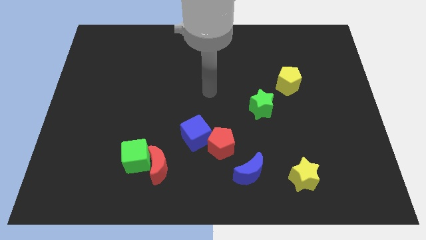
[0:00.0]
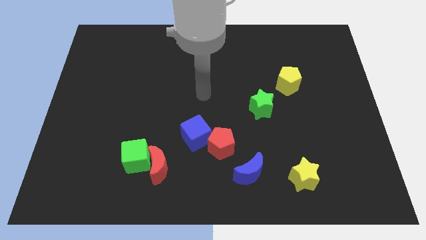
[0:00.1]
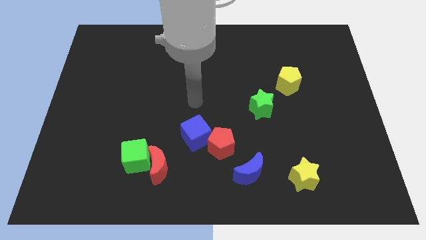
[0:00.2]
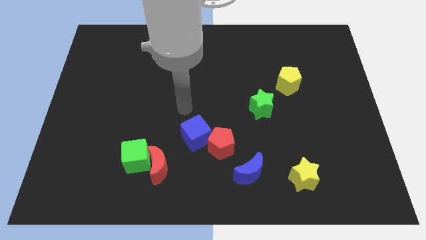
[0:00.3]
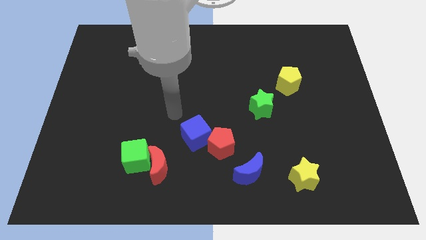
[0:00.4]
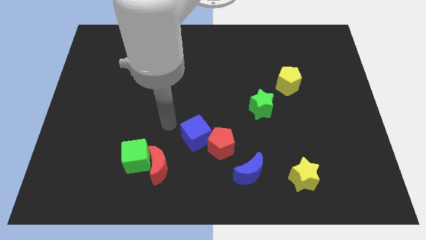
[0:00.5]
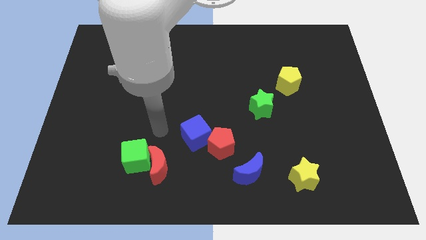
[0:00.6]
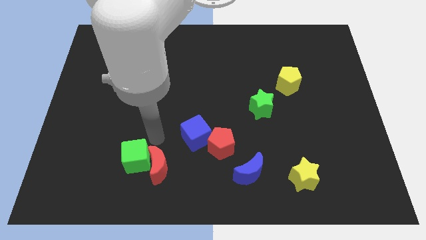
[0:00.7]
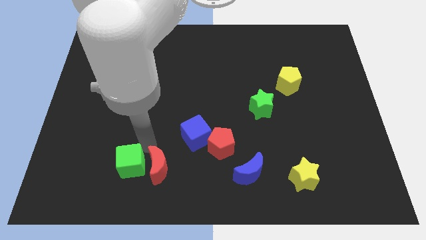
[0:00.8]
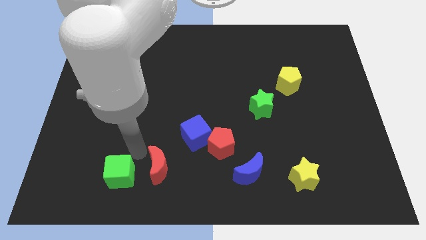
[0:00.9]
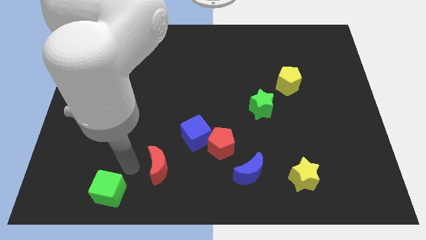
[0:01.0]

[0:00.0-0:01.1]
separate the red moon from the green cube

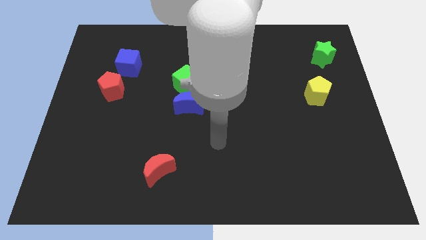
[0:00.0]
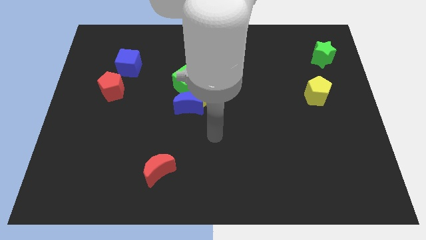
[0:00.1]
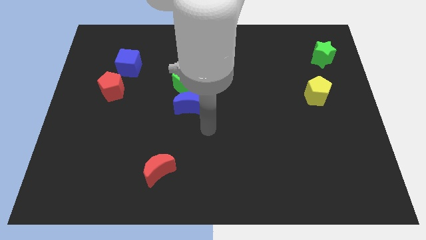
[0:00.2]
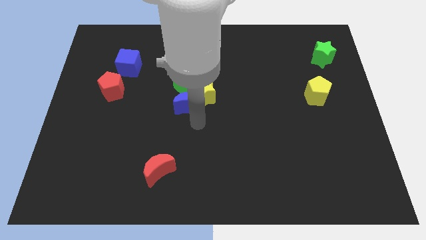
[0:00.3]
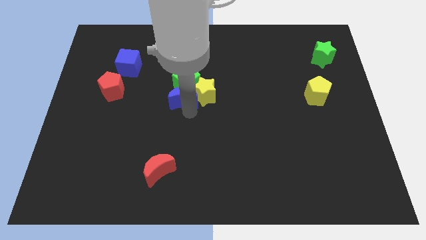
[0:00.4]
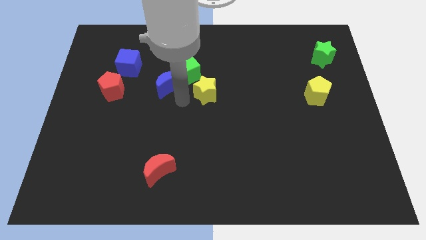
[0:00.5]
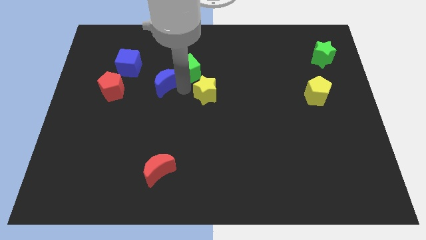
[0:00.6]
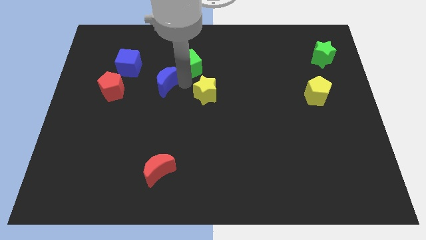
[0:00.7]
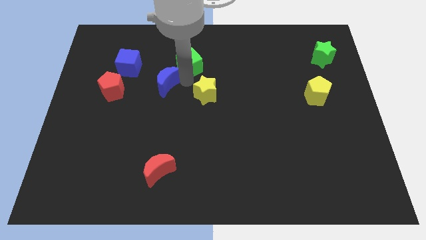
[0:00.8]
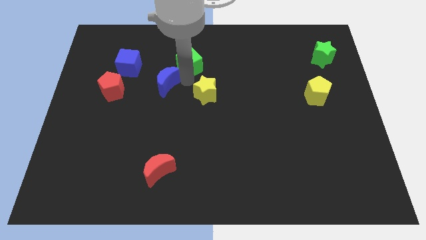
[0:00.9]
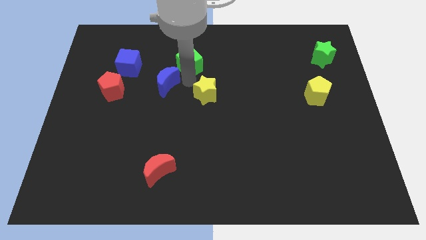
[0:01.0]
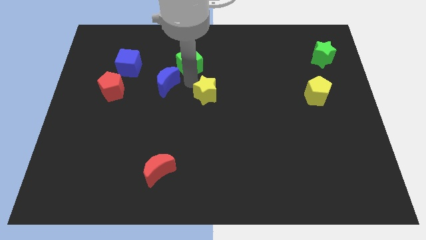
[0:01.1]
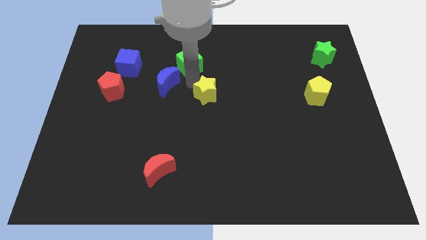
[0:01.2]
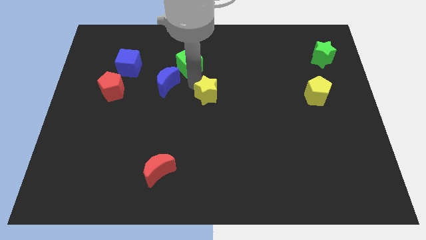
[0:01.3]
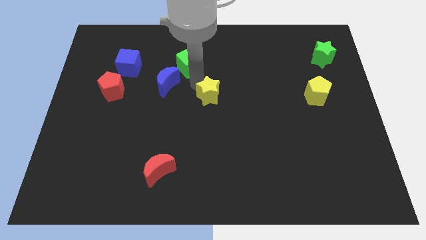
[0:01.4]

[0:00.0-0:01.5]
separate the yellow star from the blue moon and green cube

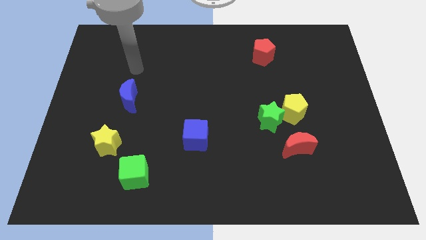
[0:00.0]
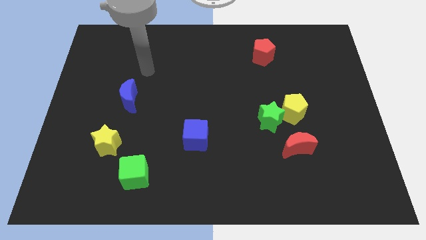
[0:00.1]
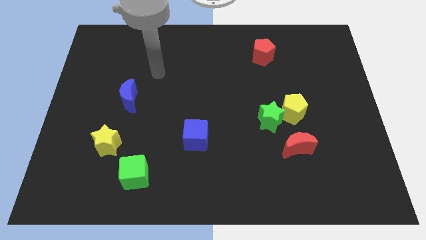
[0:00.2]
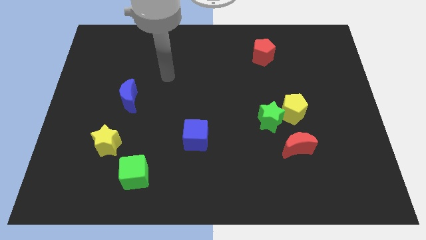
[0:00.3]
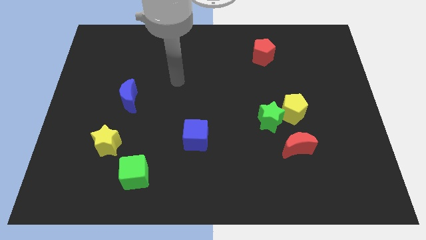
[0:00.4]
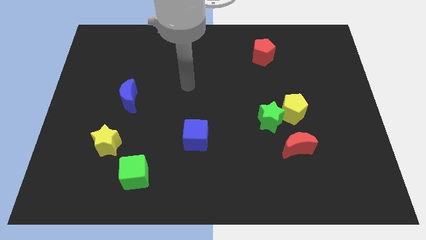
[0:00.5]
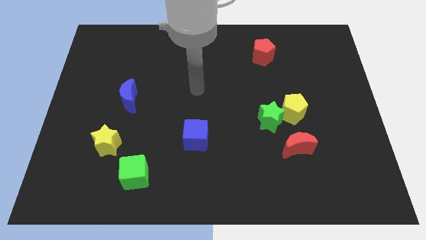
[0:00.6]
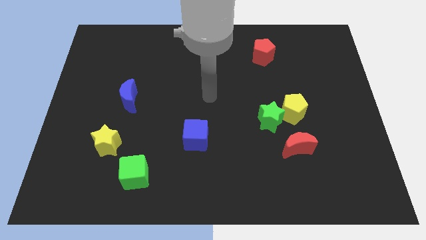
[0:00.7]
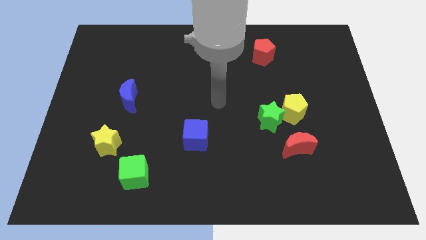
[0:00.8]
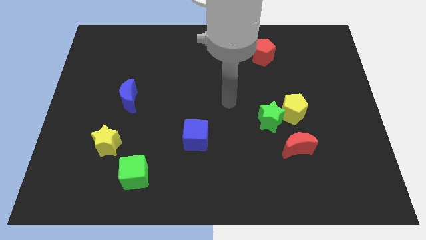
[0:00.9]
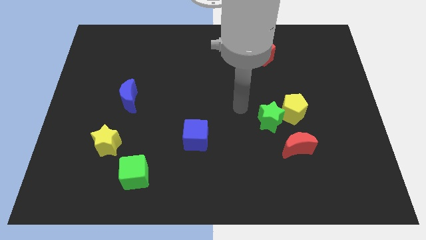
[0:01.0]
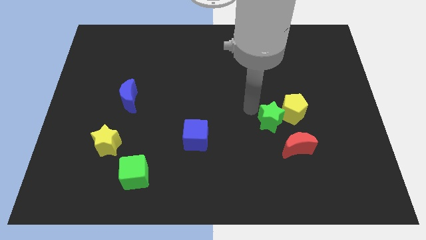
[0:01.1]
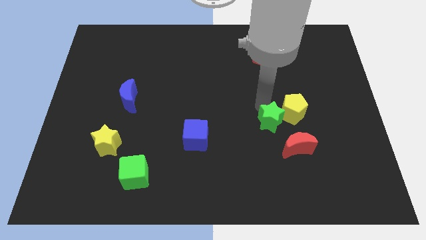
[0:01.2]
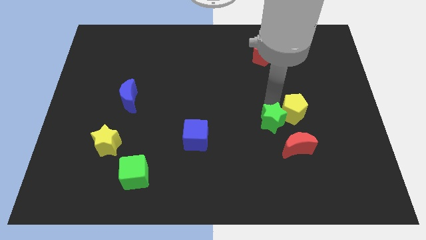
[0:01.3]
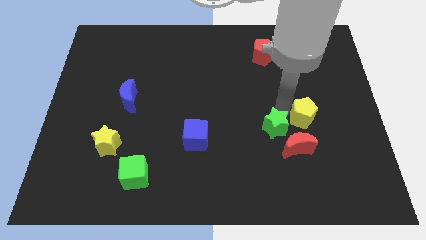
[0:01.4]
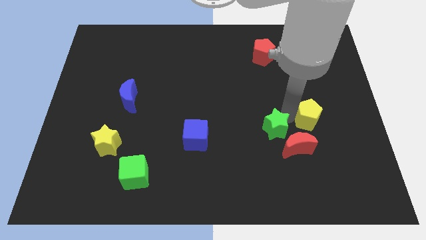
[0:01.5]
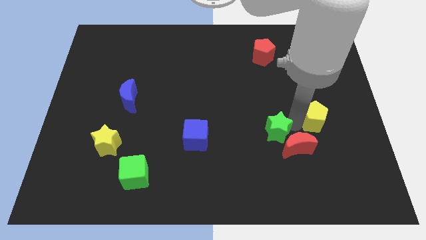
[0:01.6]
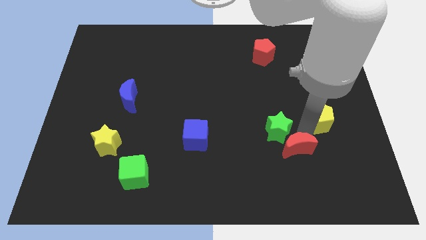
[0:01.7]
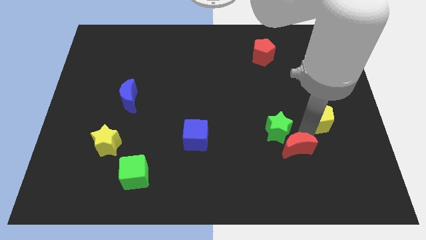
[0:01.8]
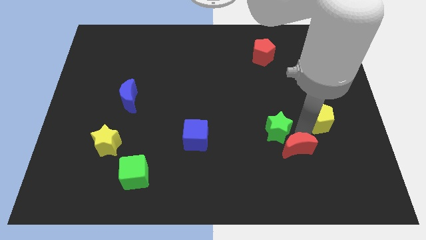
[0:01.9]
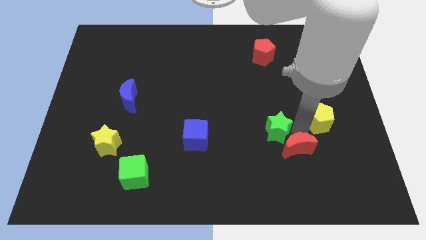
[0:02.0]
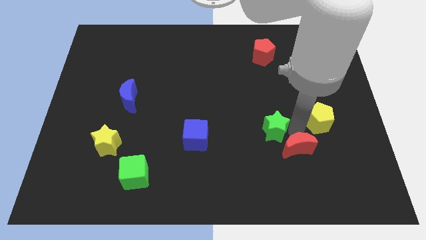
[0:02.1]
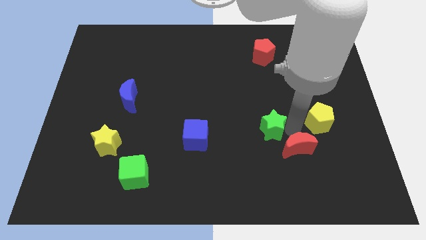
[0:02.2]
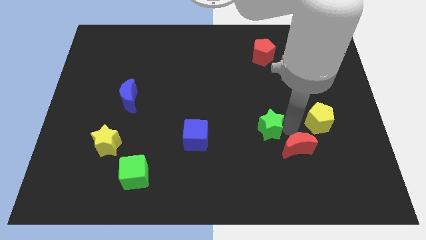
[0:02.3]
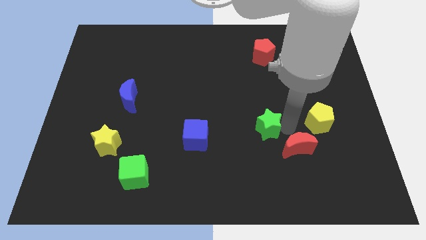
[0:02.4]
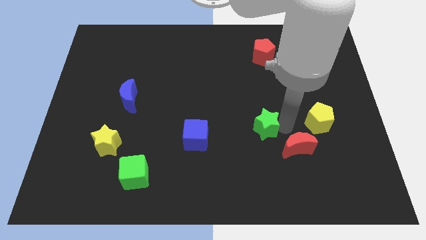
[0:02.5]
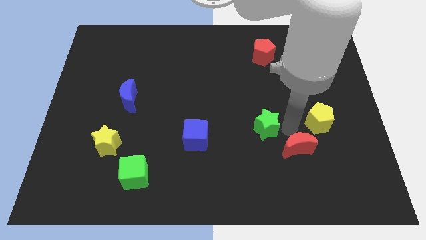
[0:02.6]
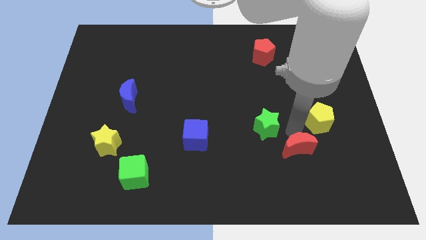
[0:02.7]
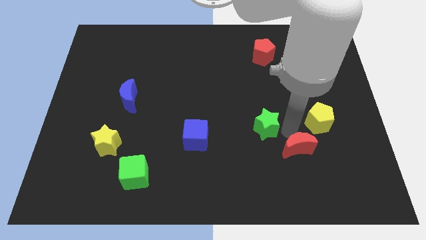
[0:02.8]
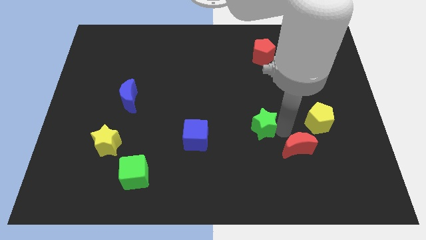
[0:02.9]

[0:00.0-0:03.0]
pull the green star apart from the yellow pentagon and red moon

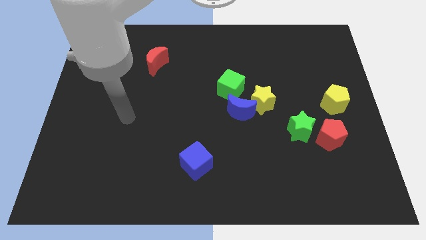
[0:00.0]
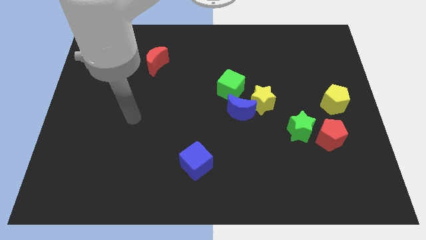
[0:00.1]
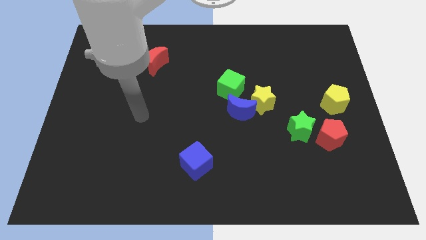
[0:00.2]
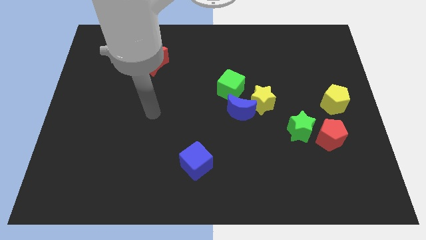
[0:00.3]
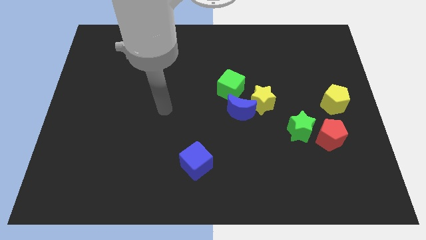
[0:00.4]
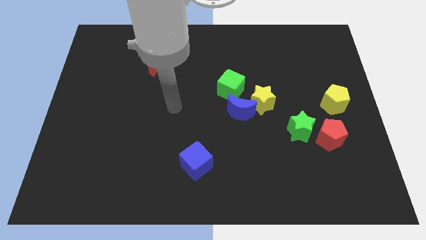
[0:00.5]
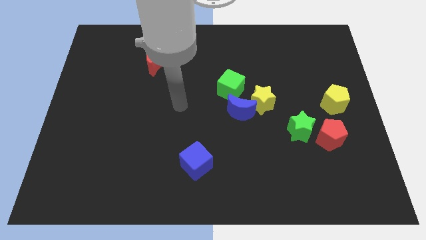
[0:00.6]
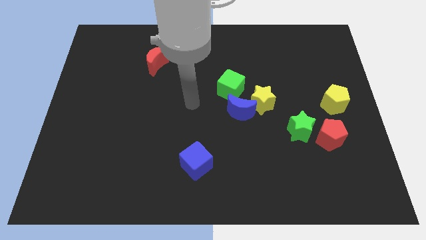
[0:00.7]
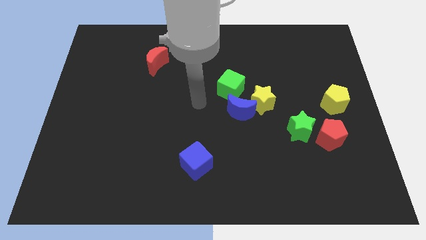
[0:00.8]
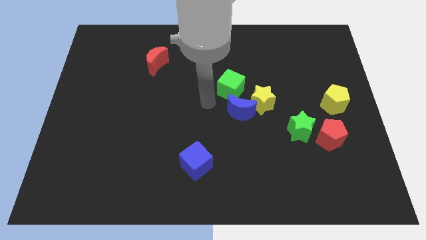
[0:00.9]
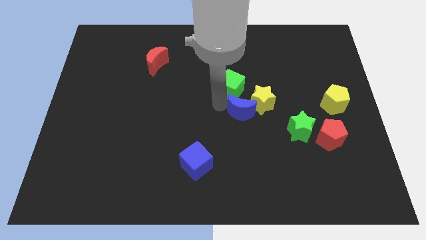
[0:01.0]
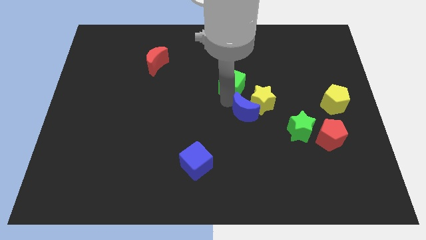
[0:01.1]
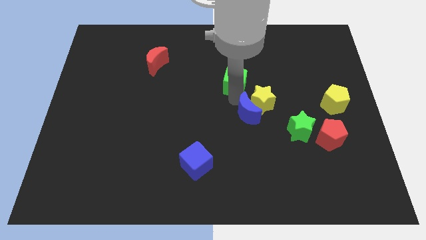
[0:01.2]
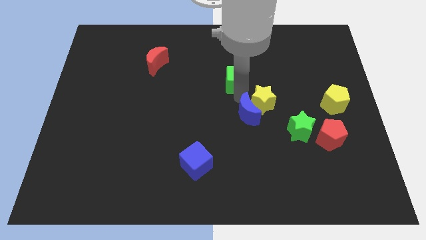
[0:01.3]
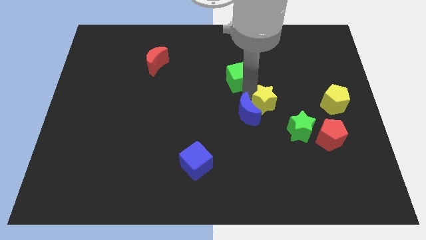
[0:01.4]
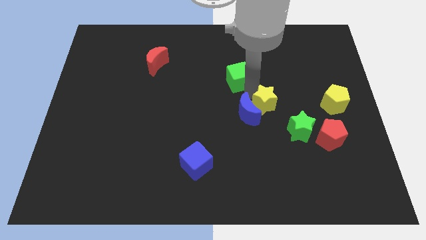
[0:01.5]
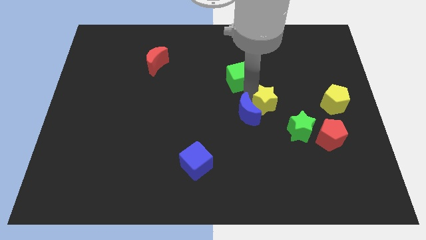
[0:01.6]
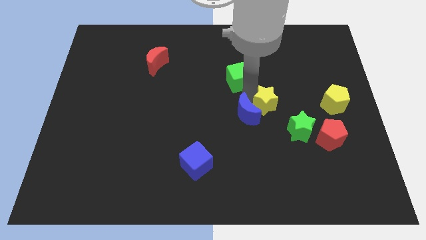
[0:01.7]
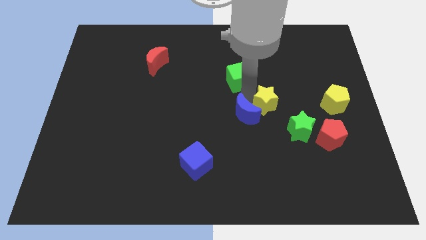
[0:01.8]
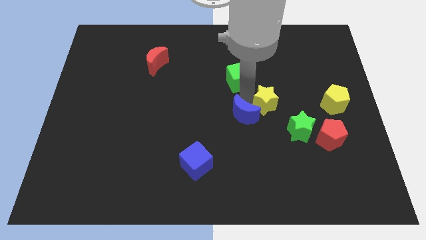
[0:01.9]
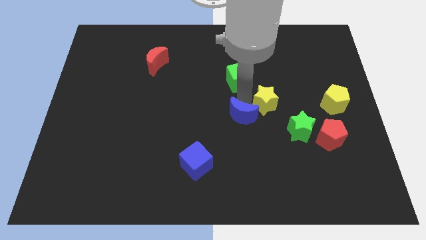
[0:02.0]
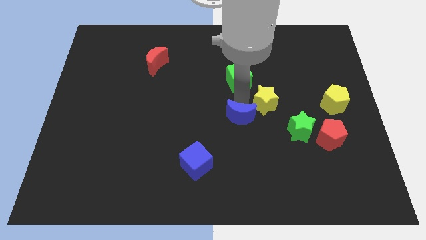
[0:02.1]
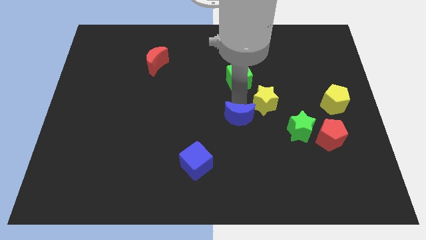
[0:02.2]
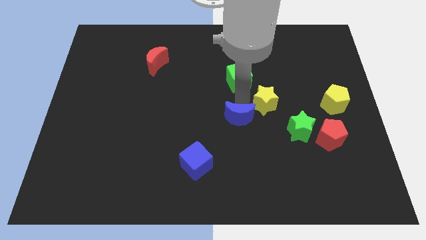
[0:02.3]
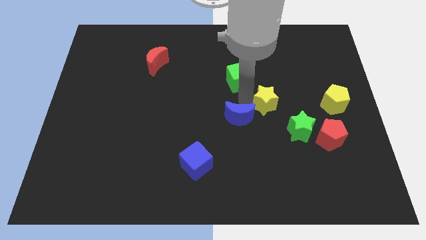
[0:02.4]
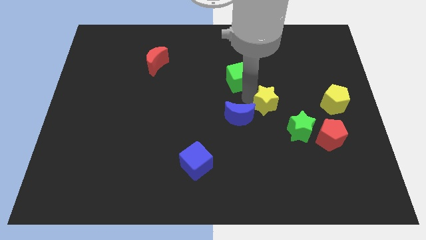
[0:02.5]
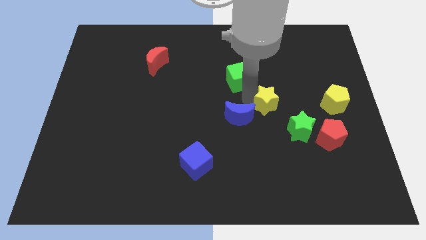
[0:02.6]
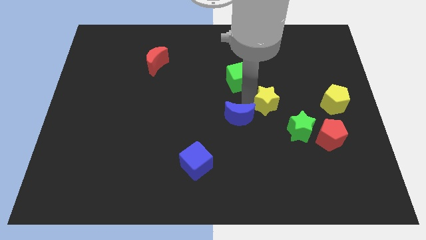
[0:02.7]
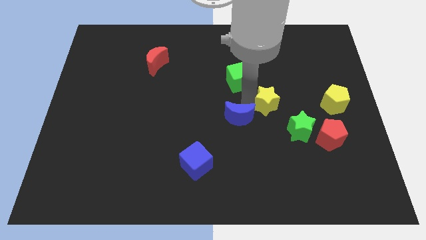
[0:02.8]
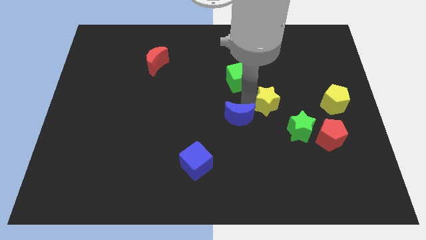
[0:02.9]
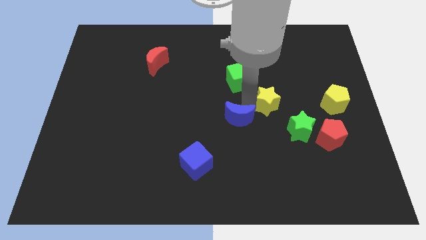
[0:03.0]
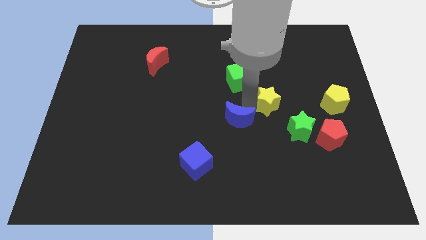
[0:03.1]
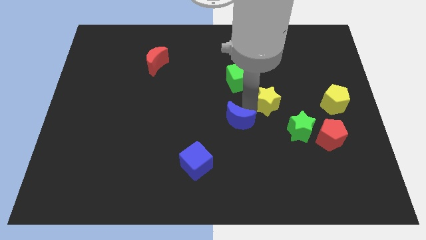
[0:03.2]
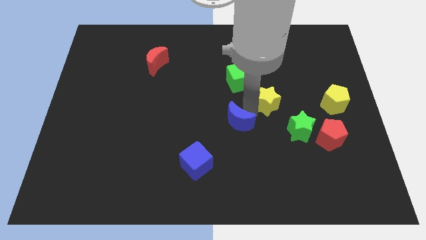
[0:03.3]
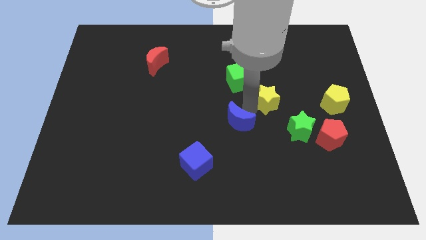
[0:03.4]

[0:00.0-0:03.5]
pull the blue moon apart from the yellow star and green cube

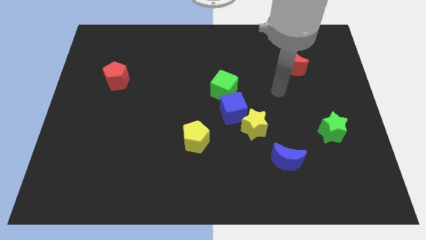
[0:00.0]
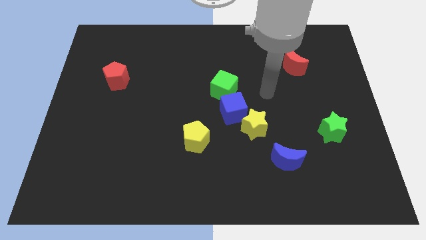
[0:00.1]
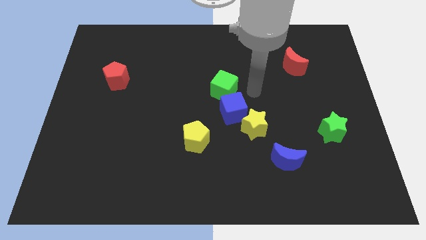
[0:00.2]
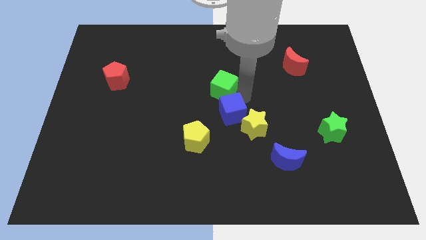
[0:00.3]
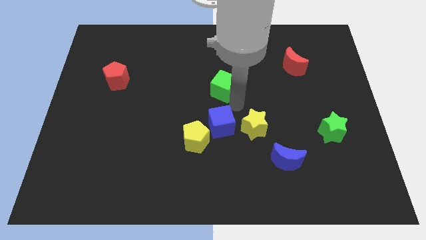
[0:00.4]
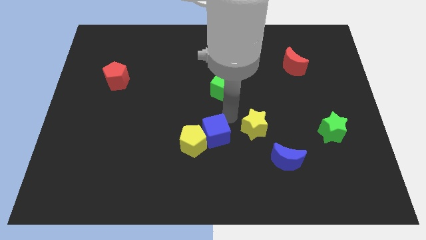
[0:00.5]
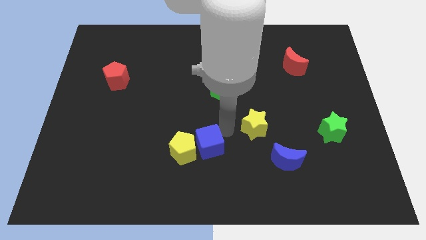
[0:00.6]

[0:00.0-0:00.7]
separate the yellow star from the blue cube
